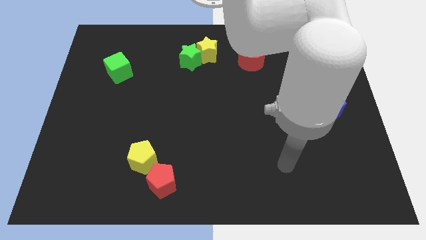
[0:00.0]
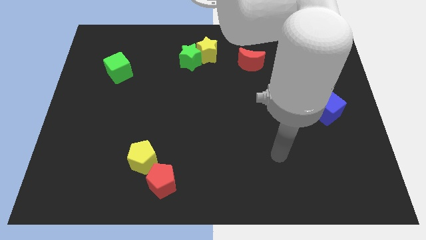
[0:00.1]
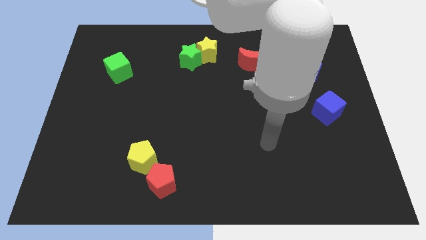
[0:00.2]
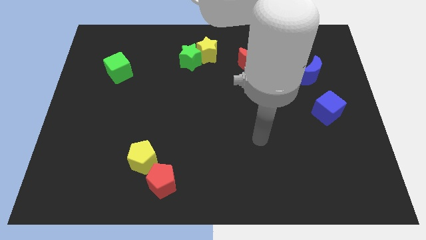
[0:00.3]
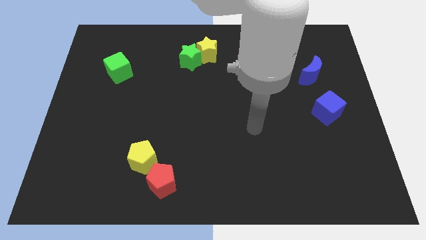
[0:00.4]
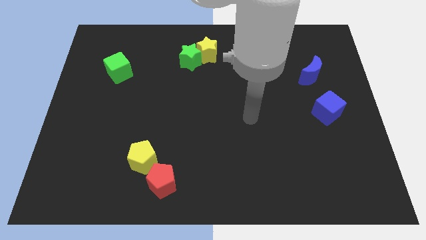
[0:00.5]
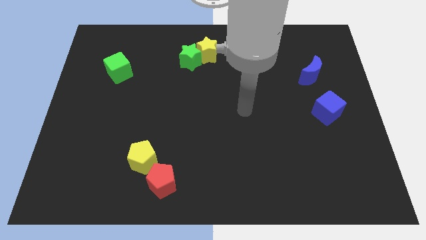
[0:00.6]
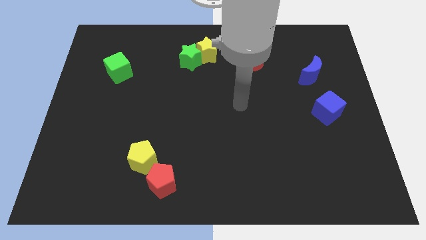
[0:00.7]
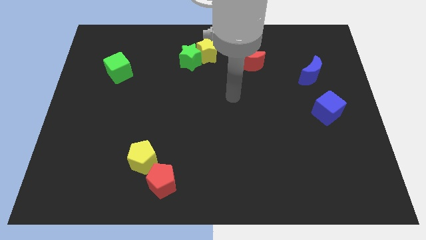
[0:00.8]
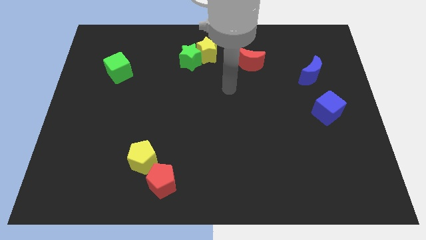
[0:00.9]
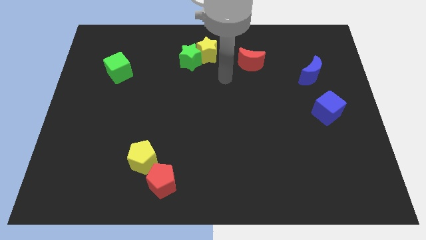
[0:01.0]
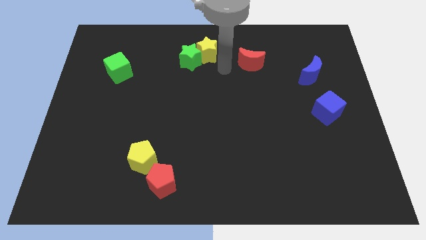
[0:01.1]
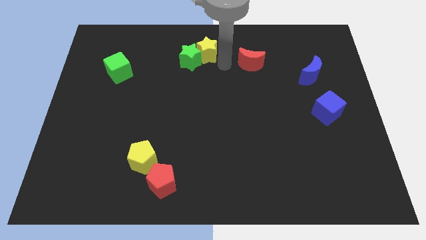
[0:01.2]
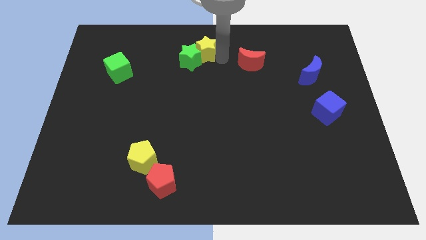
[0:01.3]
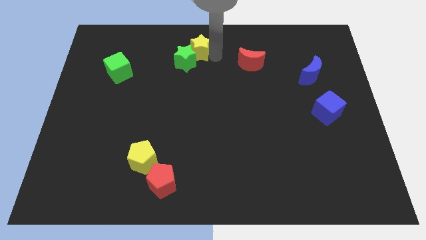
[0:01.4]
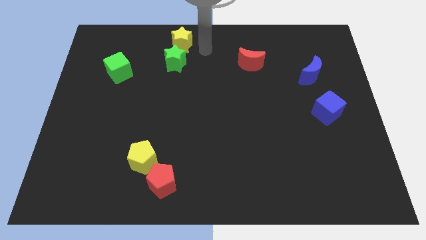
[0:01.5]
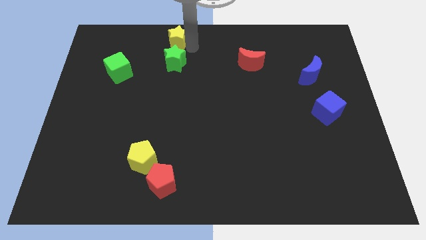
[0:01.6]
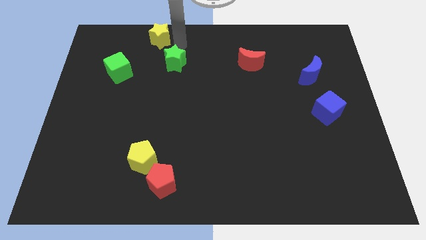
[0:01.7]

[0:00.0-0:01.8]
pull the green star apart from the yellow star

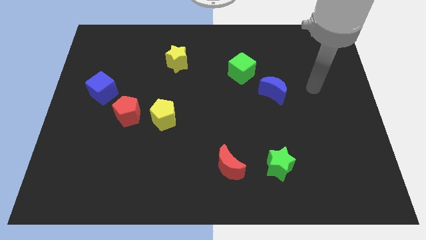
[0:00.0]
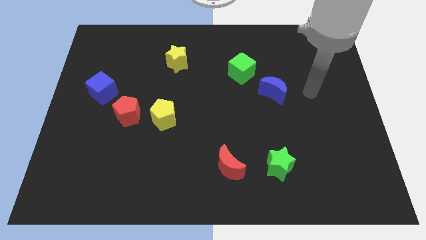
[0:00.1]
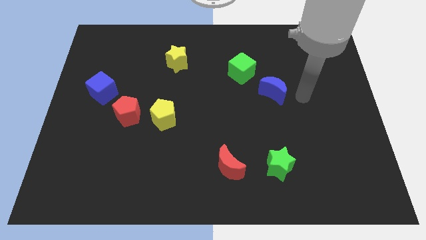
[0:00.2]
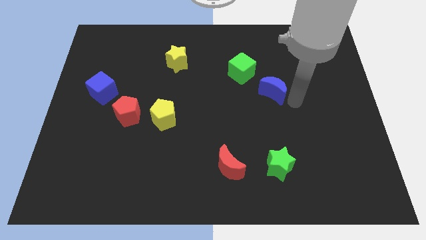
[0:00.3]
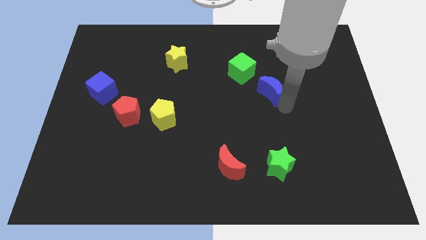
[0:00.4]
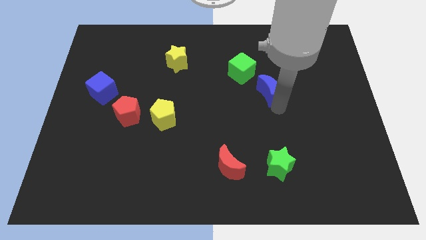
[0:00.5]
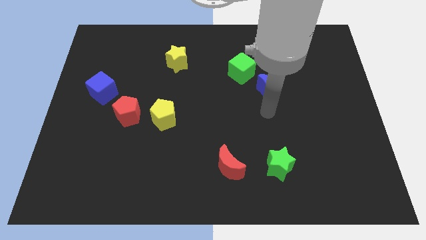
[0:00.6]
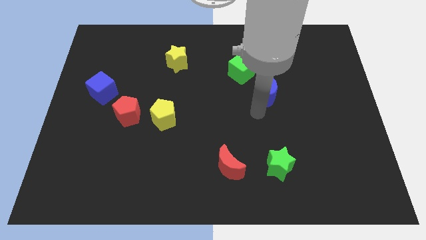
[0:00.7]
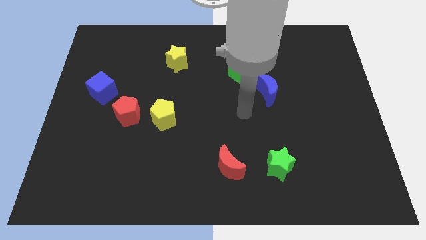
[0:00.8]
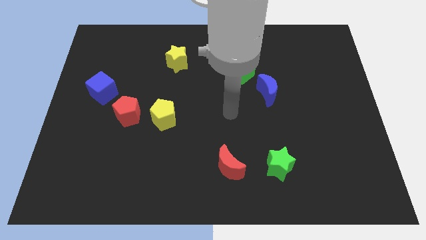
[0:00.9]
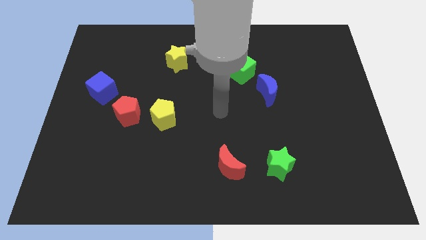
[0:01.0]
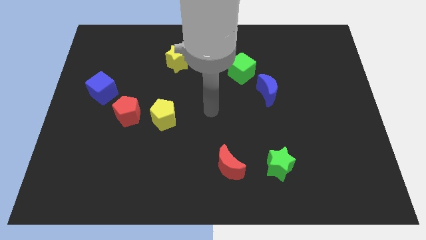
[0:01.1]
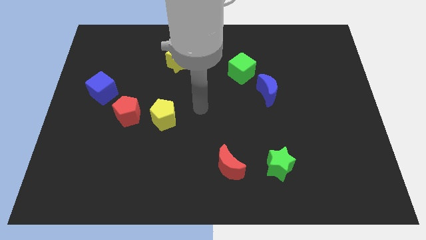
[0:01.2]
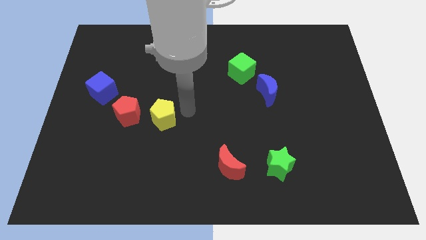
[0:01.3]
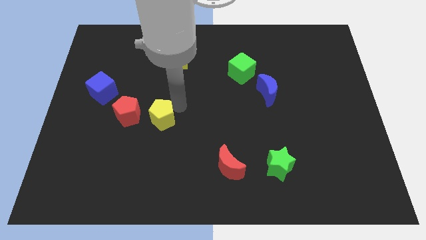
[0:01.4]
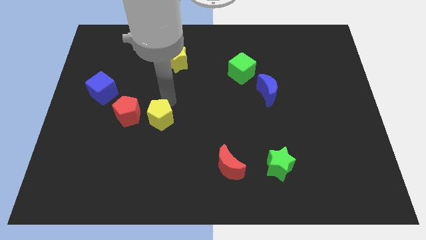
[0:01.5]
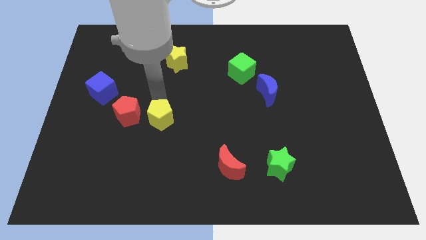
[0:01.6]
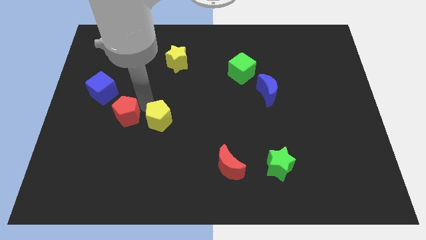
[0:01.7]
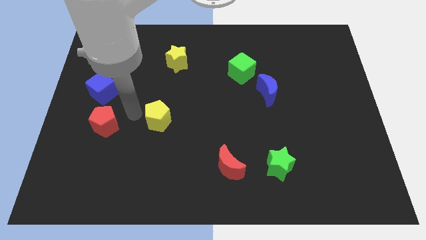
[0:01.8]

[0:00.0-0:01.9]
separate the yellow pentagon from the red pentagon

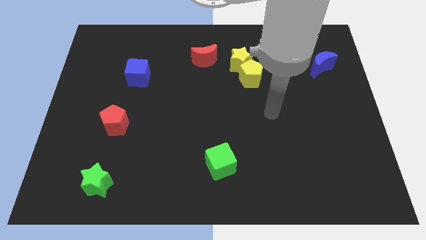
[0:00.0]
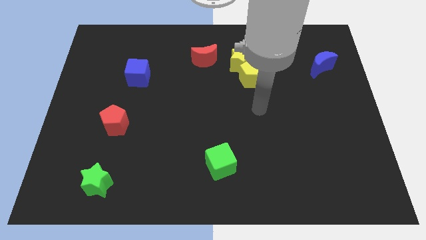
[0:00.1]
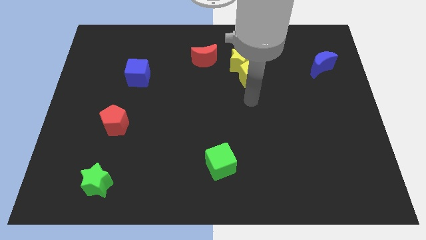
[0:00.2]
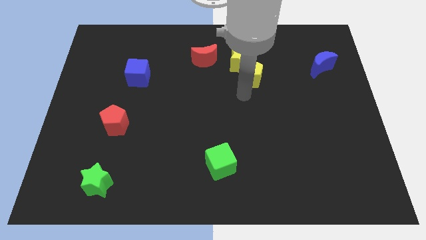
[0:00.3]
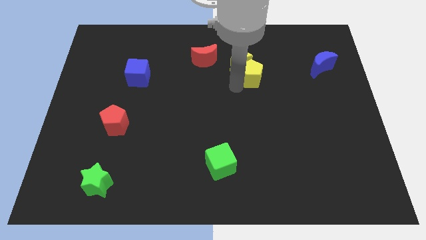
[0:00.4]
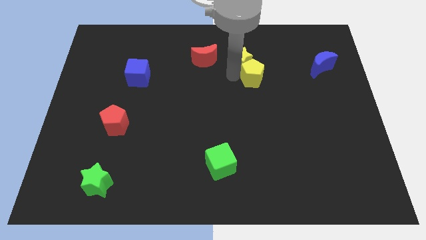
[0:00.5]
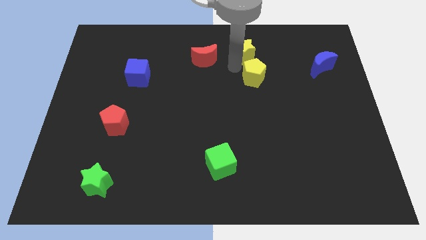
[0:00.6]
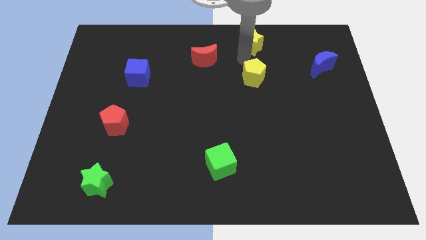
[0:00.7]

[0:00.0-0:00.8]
move the yellow pentagon away from the yellow star

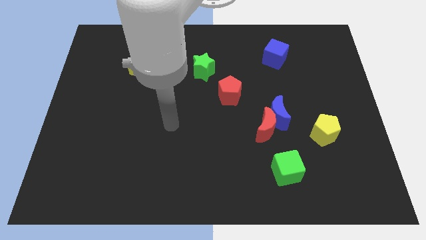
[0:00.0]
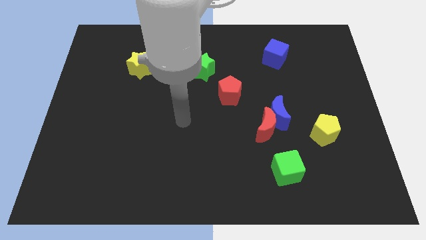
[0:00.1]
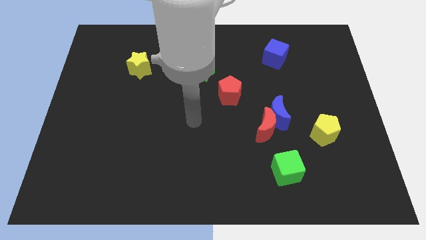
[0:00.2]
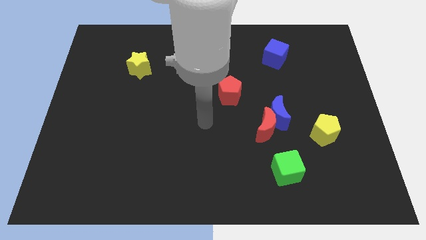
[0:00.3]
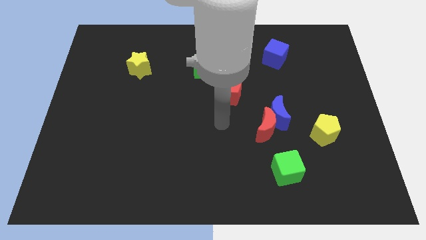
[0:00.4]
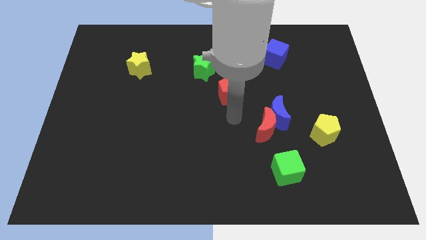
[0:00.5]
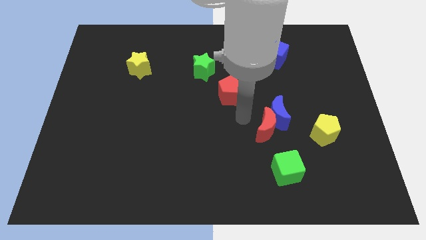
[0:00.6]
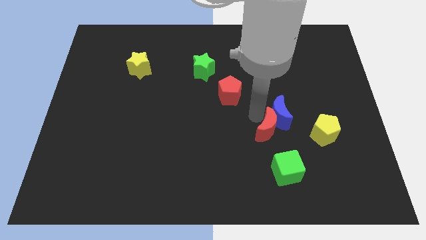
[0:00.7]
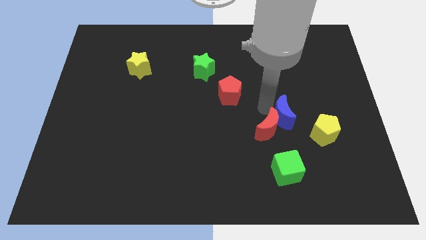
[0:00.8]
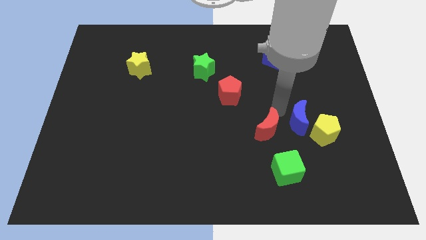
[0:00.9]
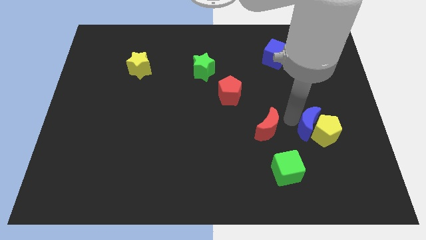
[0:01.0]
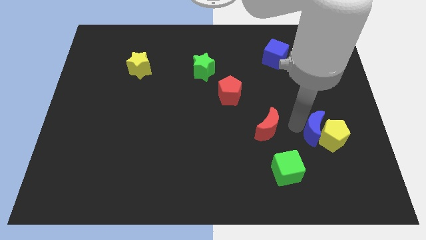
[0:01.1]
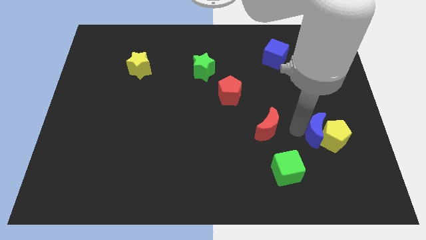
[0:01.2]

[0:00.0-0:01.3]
move the red moon away from the blue moon

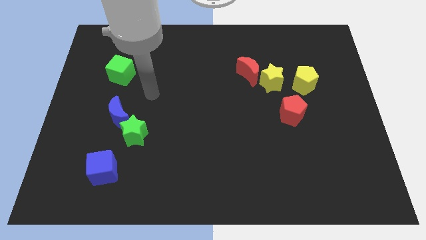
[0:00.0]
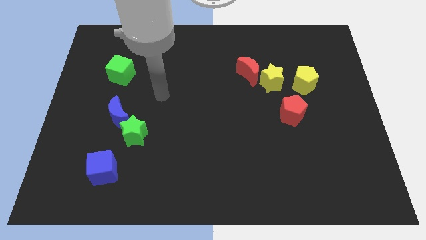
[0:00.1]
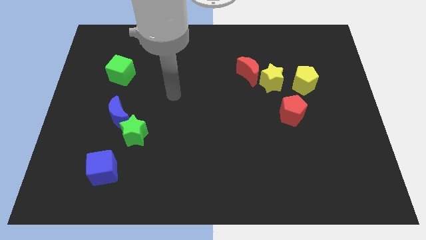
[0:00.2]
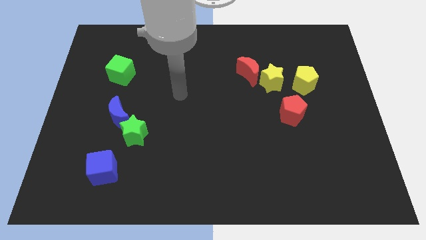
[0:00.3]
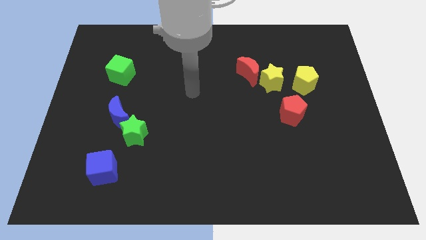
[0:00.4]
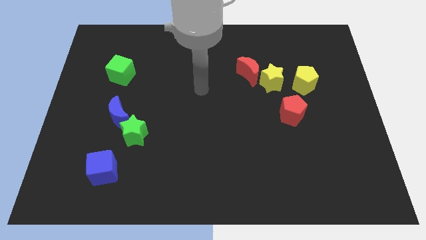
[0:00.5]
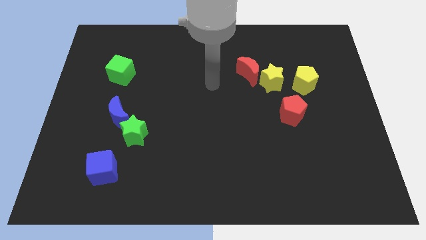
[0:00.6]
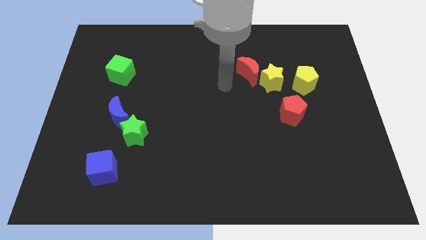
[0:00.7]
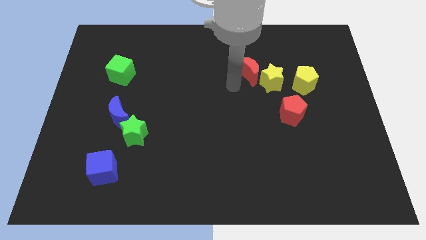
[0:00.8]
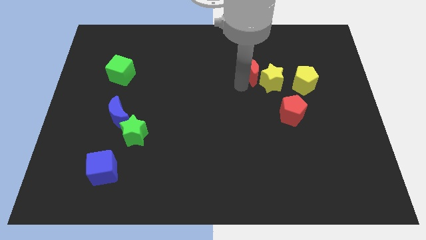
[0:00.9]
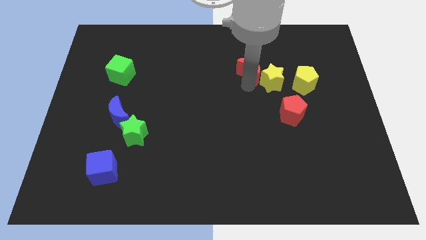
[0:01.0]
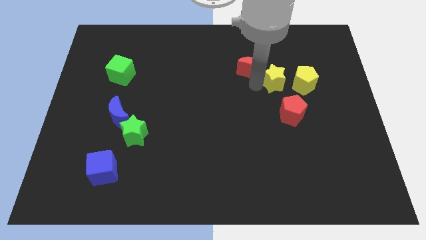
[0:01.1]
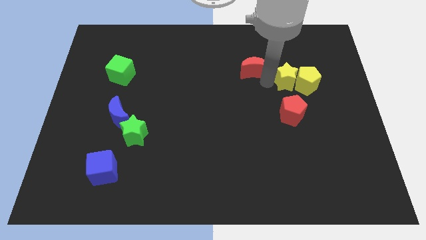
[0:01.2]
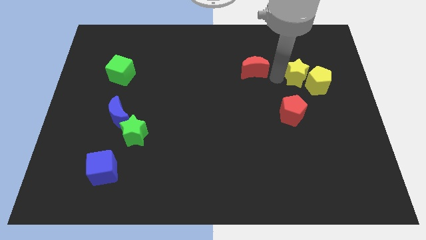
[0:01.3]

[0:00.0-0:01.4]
move the red moon away from the yellow star

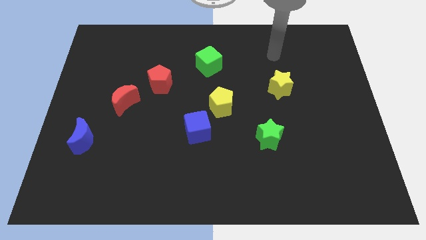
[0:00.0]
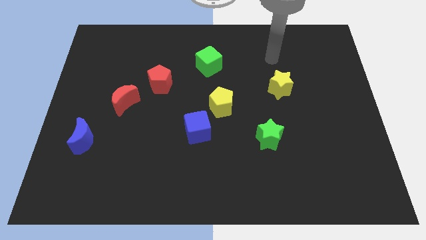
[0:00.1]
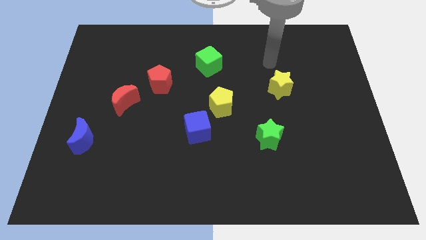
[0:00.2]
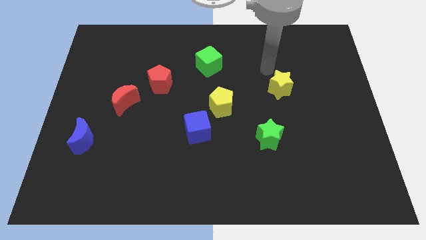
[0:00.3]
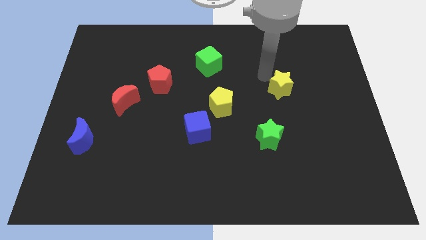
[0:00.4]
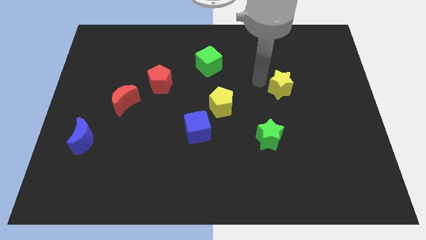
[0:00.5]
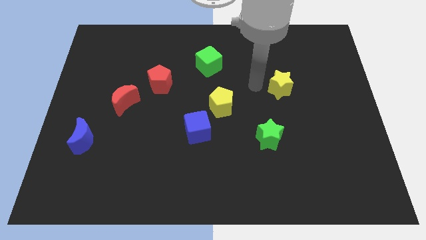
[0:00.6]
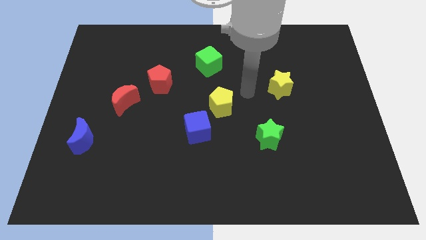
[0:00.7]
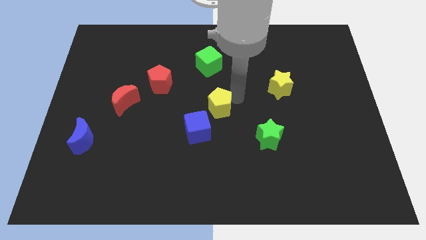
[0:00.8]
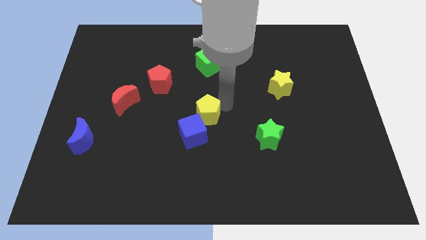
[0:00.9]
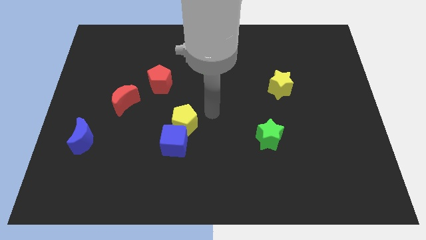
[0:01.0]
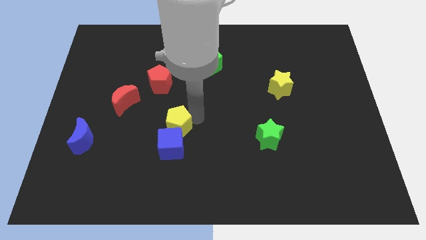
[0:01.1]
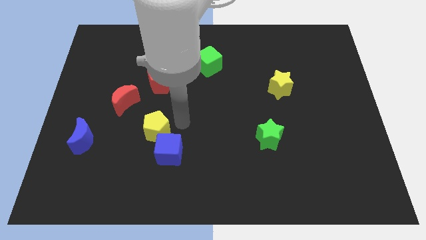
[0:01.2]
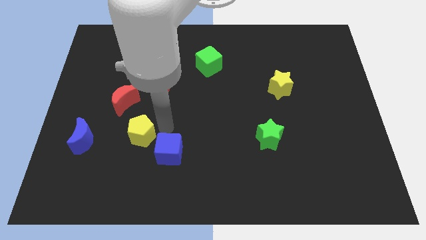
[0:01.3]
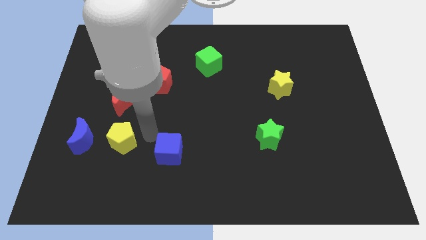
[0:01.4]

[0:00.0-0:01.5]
pull the blue cube apart from the yellow pentagon

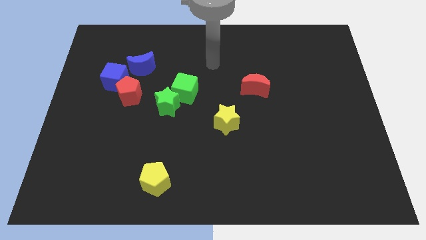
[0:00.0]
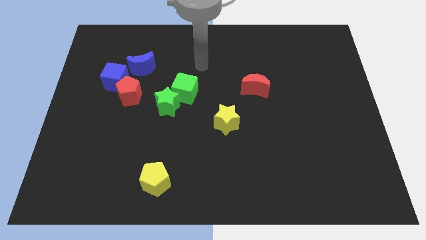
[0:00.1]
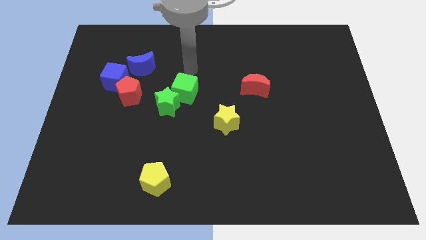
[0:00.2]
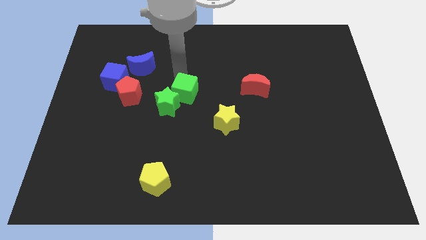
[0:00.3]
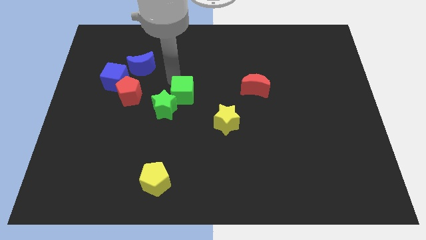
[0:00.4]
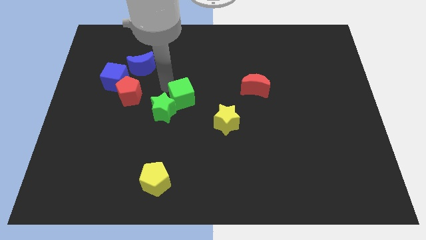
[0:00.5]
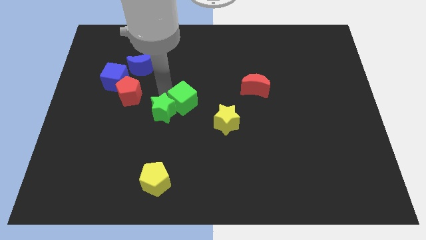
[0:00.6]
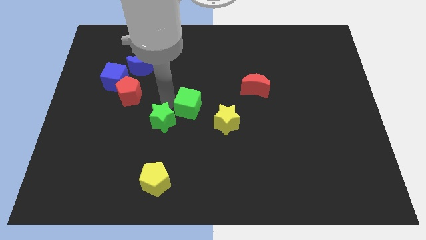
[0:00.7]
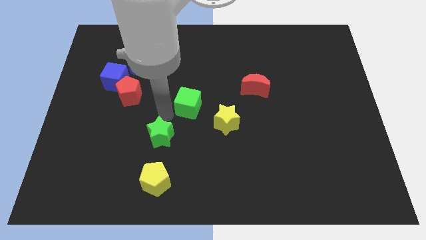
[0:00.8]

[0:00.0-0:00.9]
pull the green cube apart from the green star
